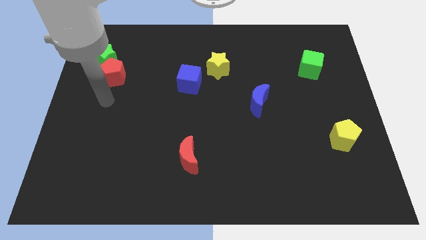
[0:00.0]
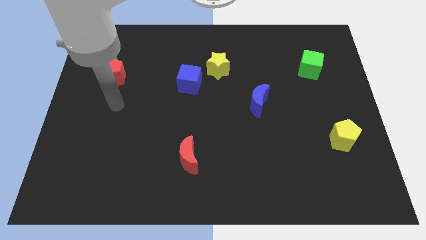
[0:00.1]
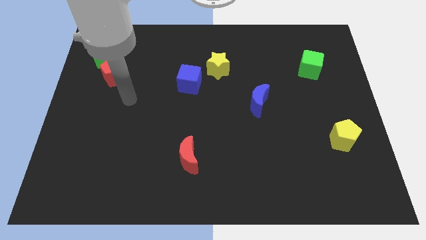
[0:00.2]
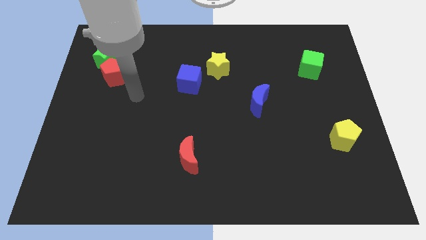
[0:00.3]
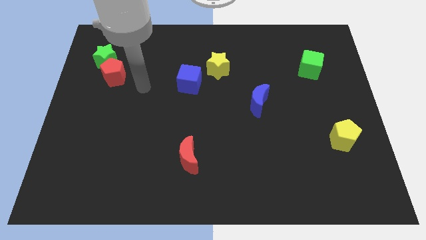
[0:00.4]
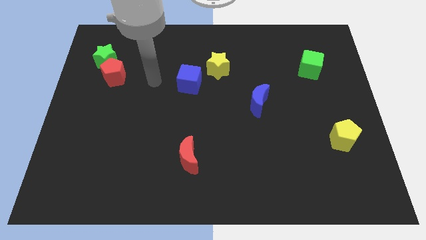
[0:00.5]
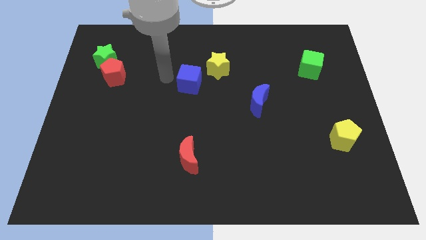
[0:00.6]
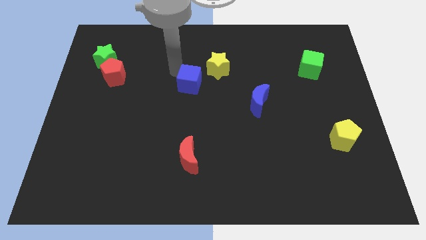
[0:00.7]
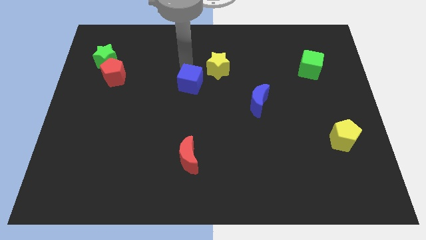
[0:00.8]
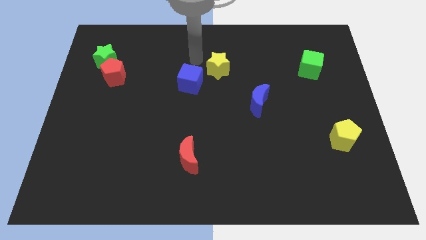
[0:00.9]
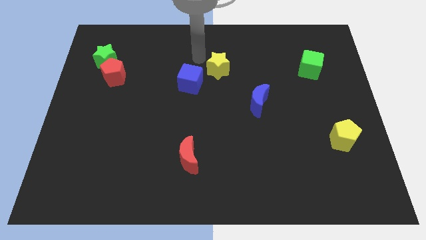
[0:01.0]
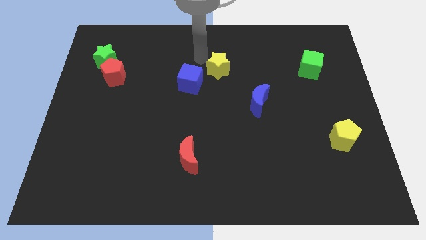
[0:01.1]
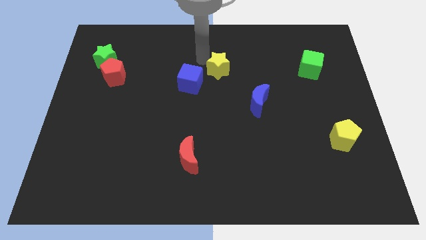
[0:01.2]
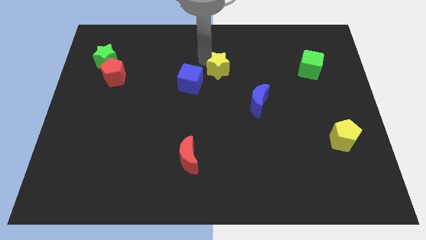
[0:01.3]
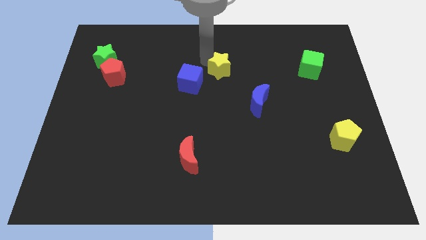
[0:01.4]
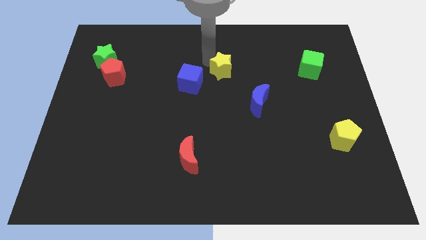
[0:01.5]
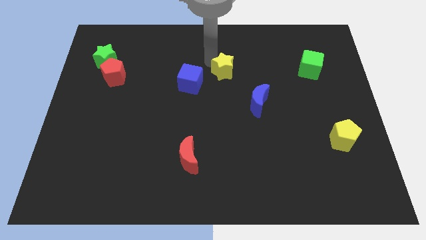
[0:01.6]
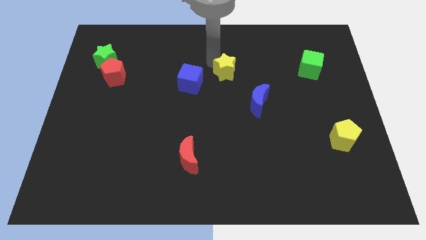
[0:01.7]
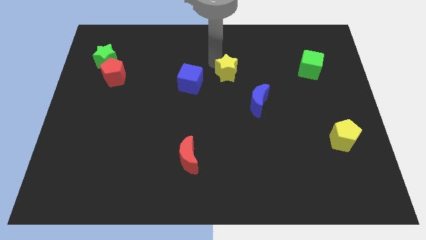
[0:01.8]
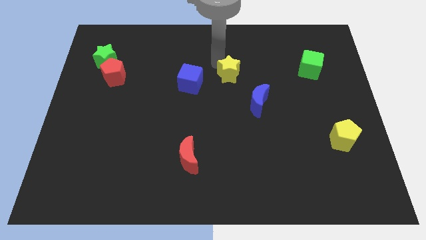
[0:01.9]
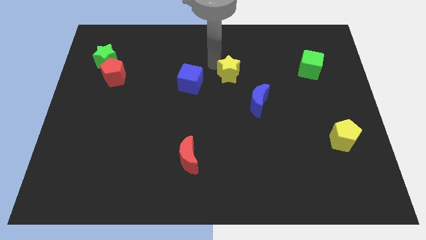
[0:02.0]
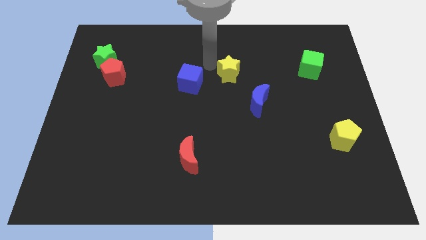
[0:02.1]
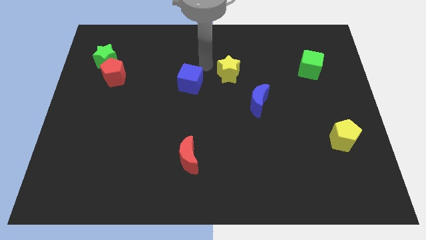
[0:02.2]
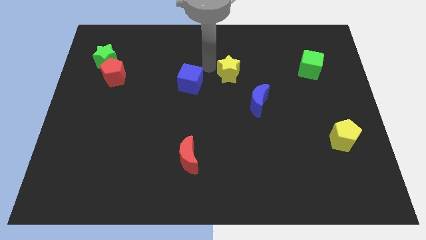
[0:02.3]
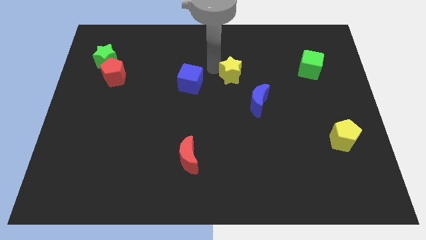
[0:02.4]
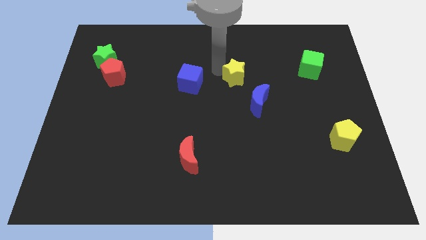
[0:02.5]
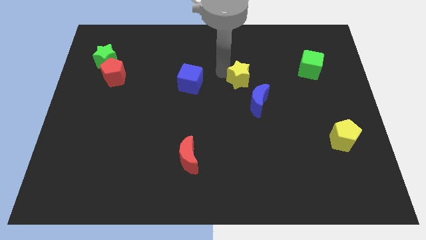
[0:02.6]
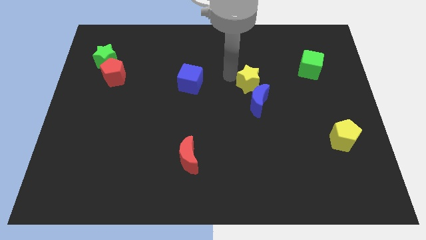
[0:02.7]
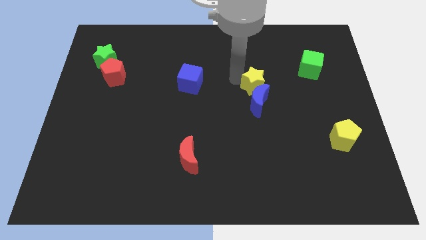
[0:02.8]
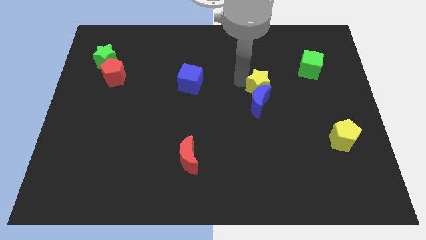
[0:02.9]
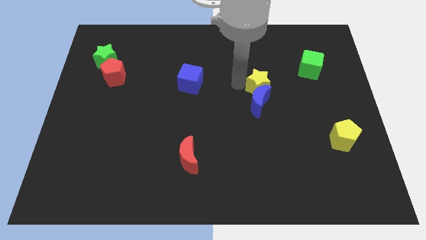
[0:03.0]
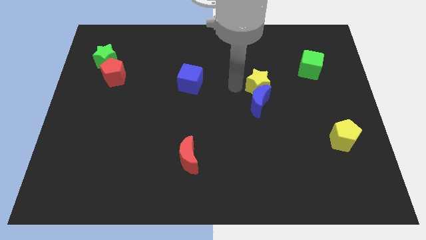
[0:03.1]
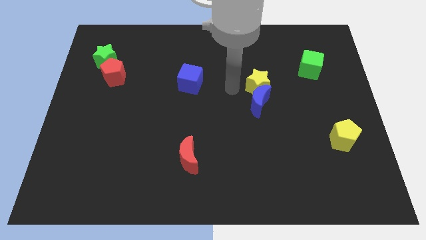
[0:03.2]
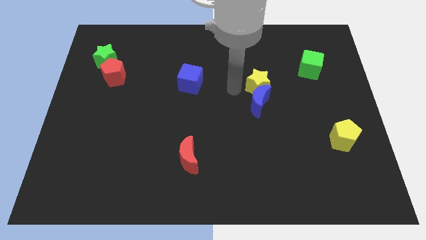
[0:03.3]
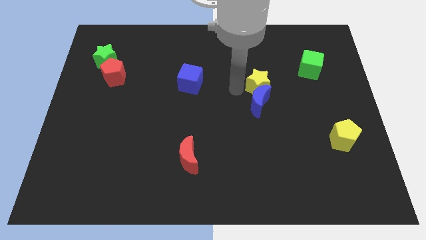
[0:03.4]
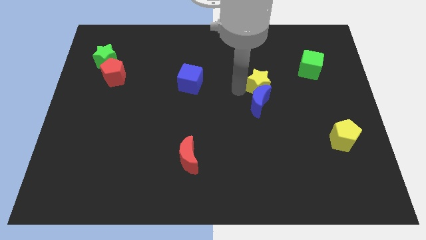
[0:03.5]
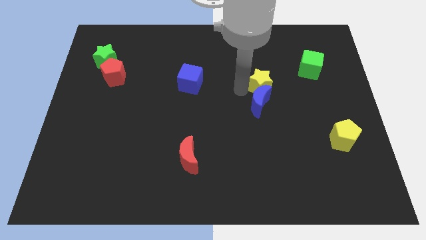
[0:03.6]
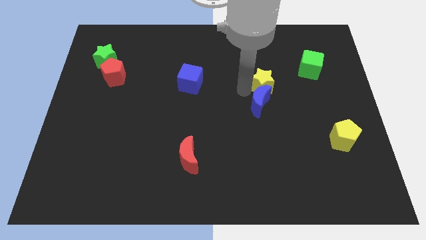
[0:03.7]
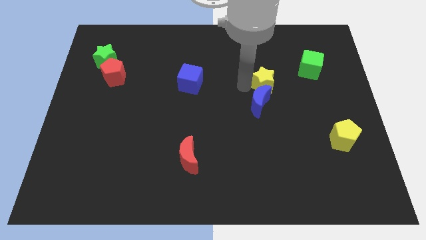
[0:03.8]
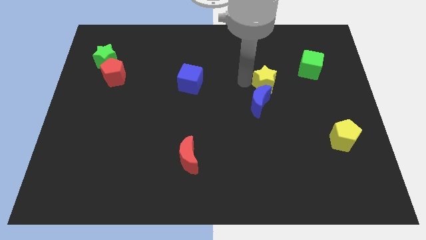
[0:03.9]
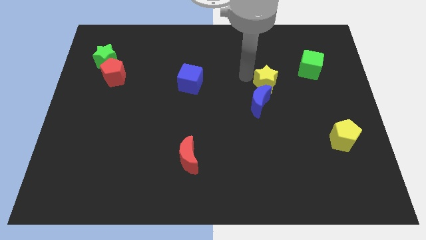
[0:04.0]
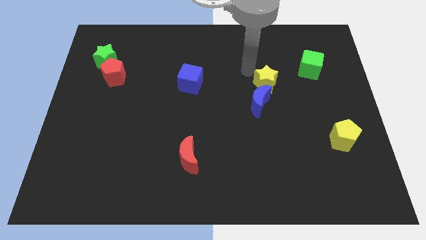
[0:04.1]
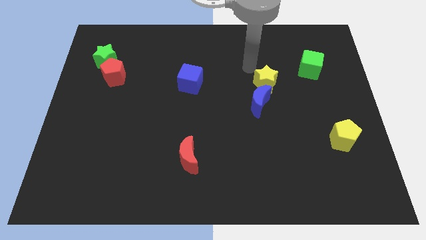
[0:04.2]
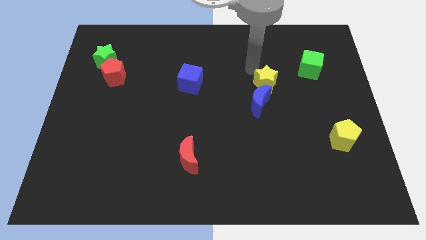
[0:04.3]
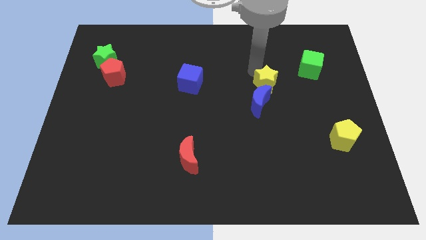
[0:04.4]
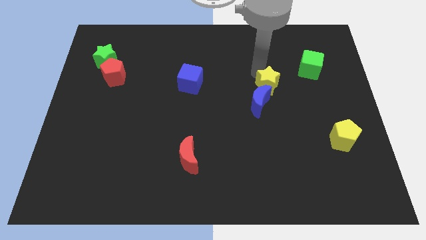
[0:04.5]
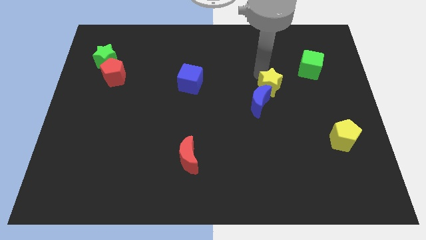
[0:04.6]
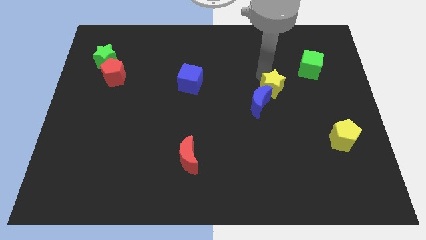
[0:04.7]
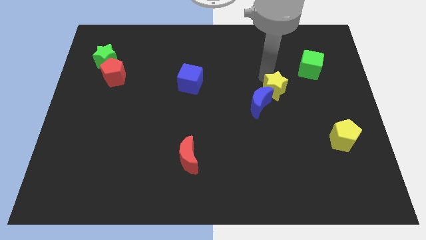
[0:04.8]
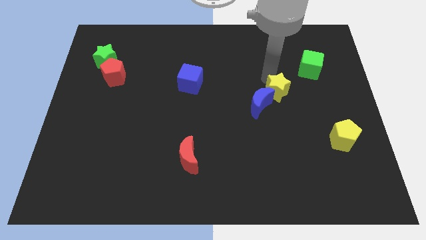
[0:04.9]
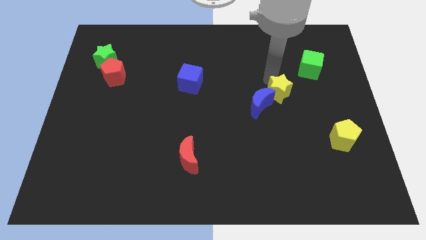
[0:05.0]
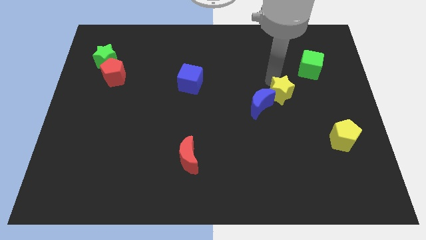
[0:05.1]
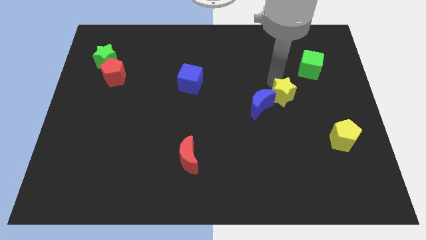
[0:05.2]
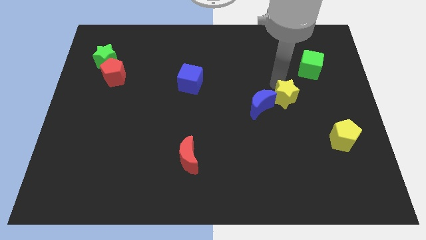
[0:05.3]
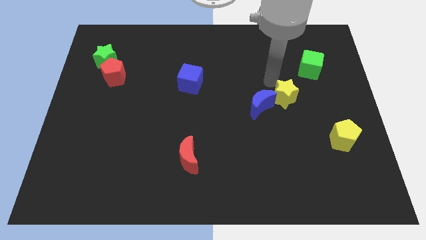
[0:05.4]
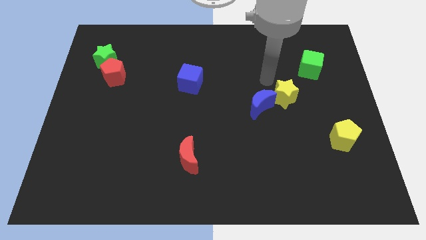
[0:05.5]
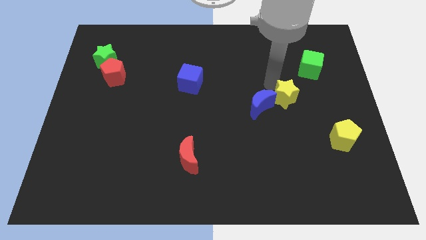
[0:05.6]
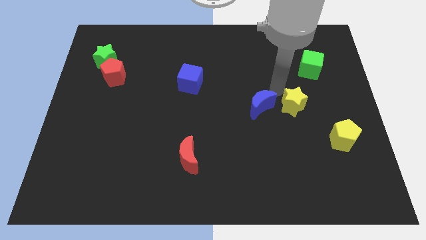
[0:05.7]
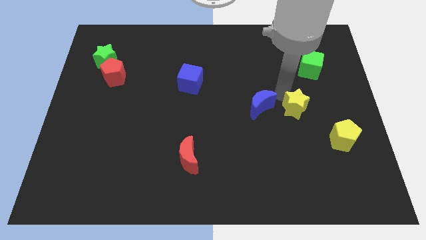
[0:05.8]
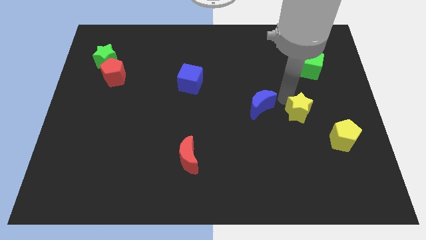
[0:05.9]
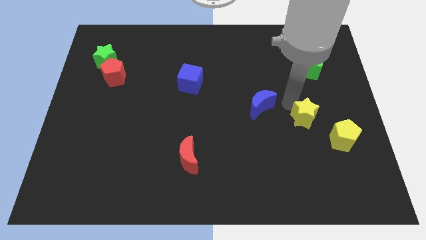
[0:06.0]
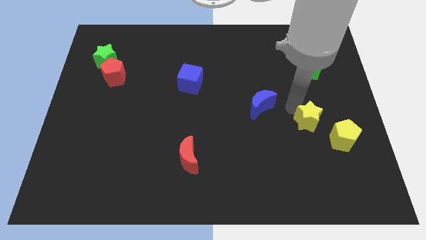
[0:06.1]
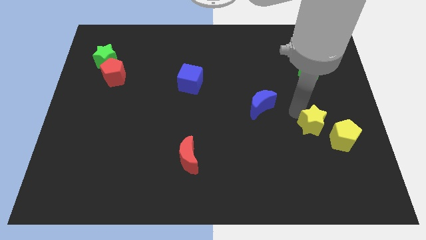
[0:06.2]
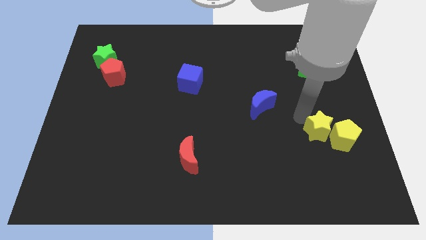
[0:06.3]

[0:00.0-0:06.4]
slide the yellow star towards the yellow pentagon
